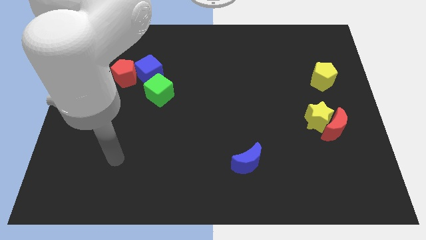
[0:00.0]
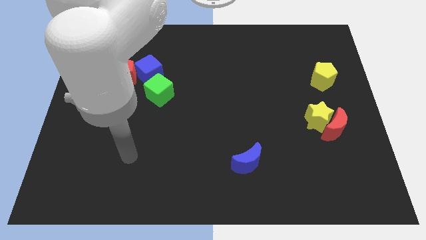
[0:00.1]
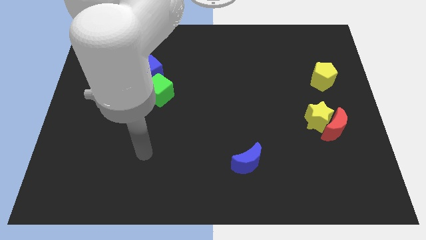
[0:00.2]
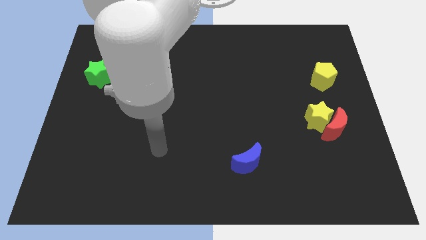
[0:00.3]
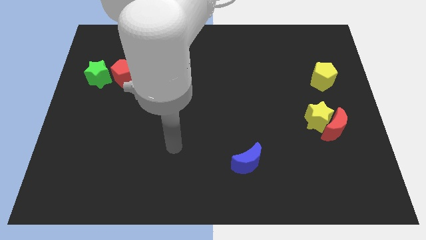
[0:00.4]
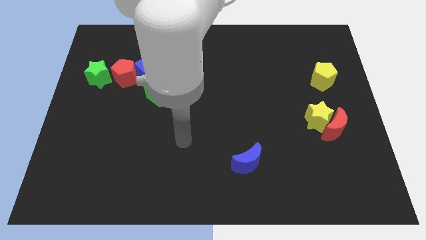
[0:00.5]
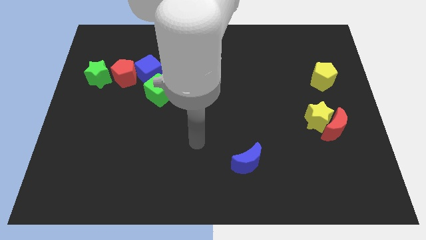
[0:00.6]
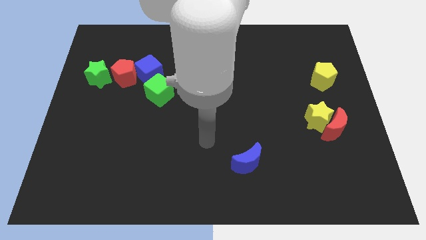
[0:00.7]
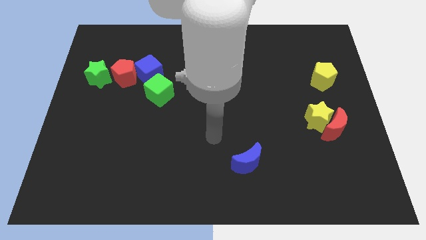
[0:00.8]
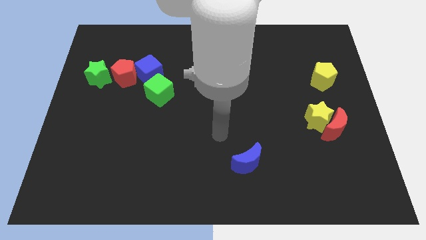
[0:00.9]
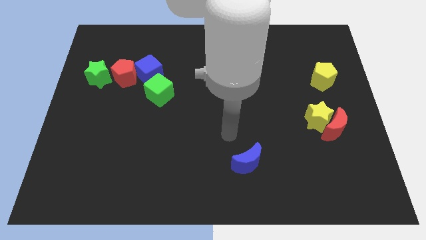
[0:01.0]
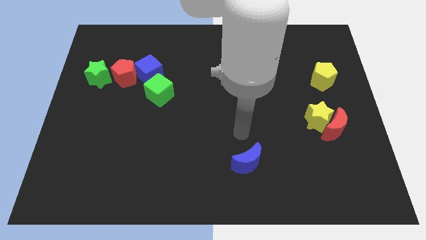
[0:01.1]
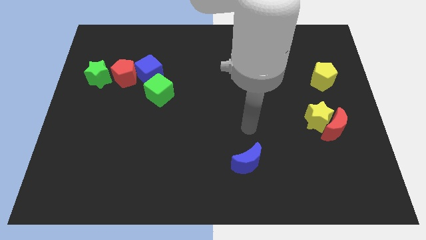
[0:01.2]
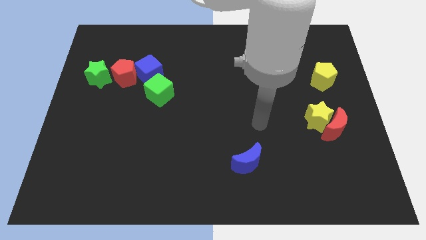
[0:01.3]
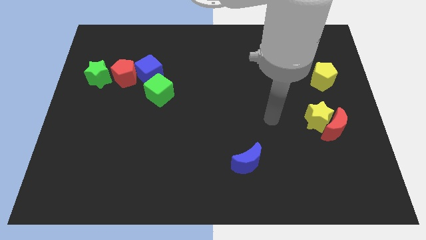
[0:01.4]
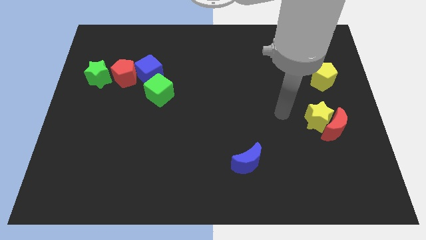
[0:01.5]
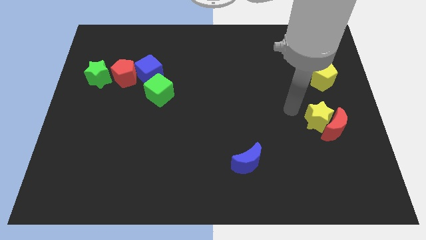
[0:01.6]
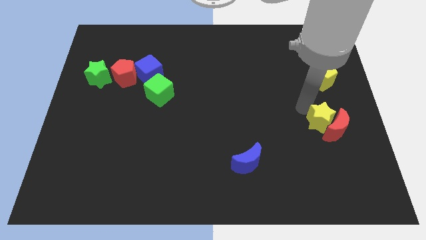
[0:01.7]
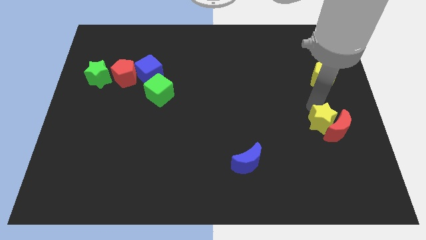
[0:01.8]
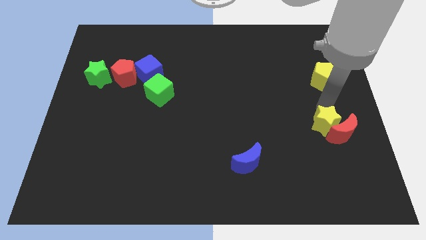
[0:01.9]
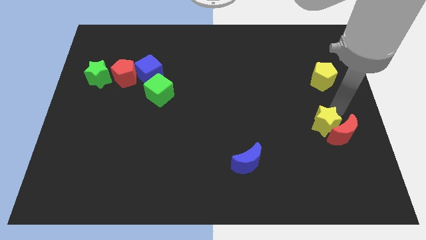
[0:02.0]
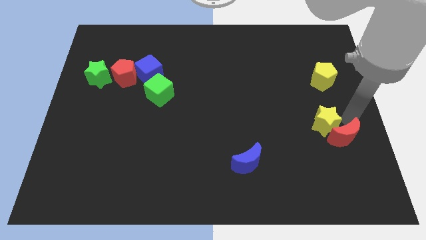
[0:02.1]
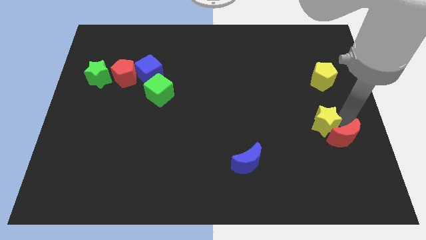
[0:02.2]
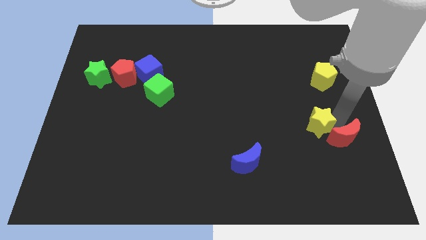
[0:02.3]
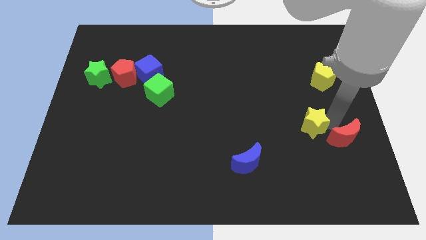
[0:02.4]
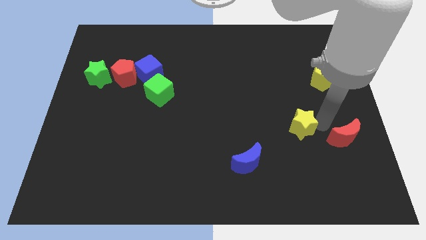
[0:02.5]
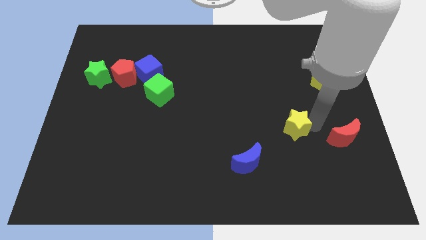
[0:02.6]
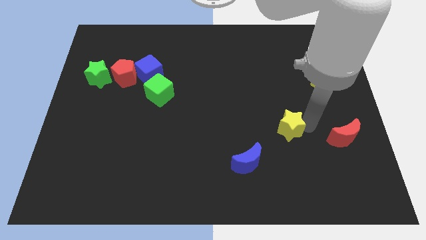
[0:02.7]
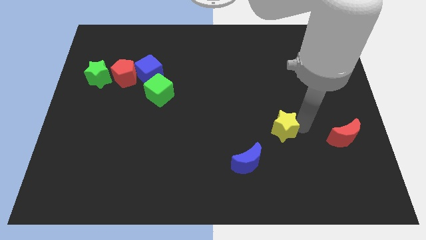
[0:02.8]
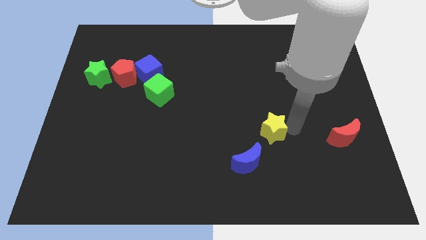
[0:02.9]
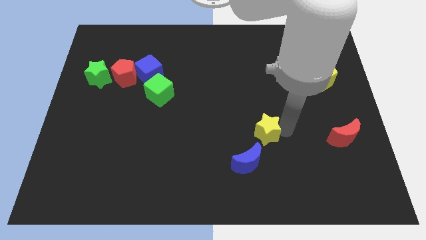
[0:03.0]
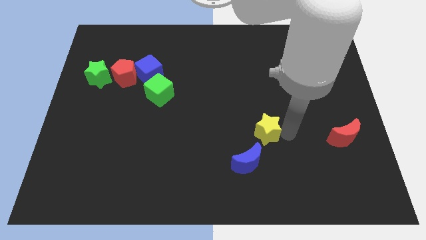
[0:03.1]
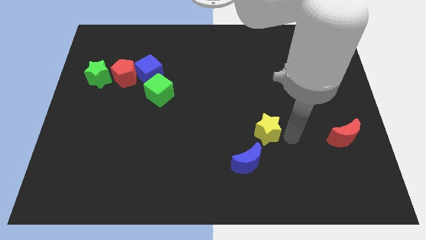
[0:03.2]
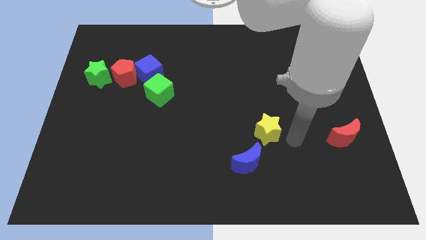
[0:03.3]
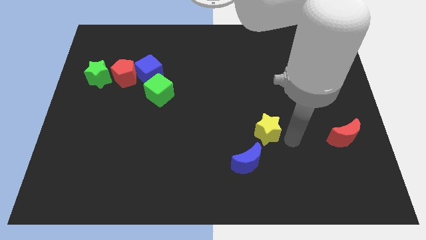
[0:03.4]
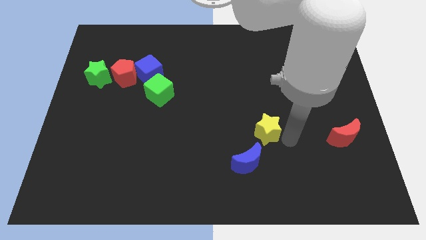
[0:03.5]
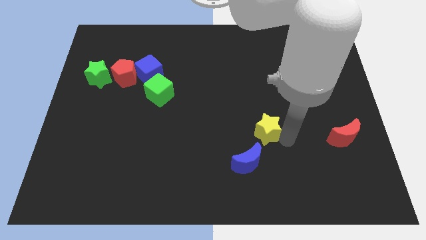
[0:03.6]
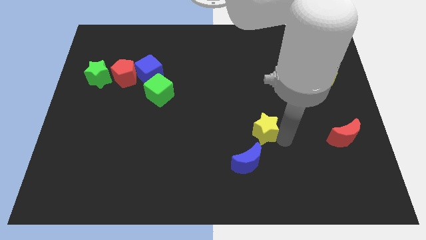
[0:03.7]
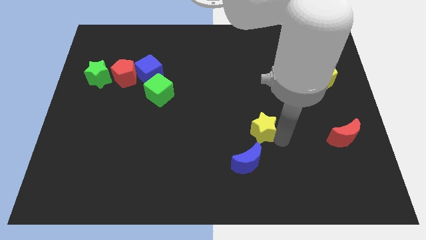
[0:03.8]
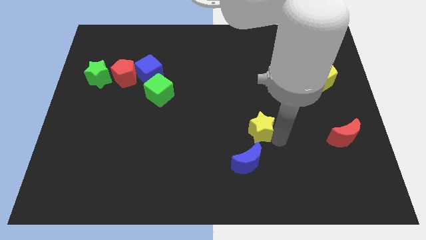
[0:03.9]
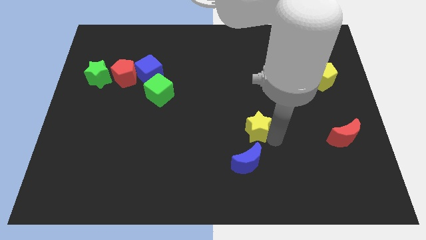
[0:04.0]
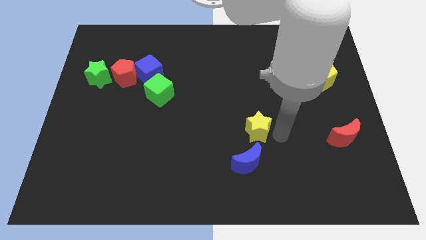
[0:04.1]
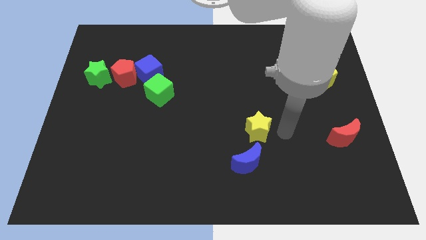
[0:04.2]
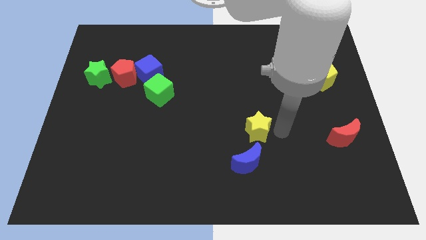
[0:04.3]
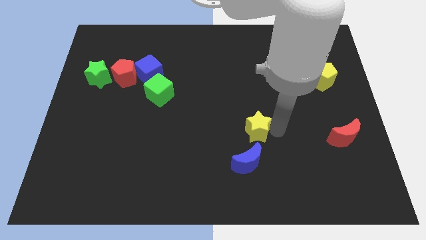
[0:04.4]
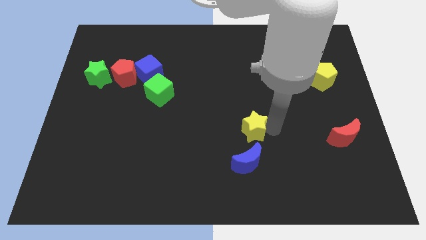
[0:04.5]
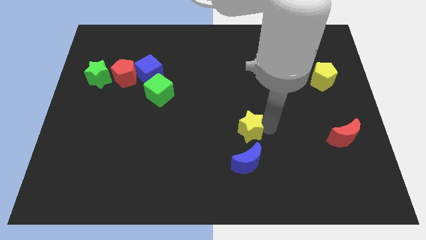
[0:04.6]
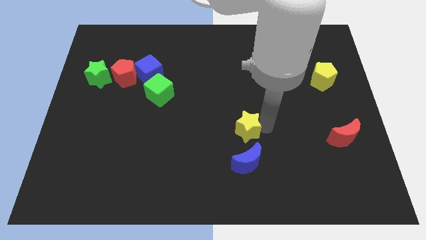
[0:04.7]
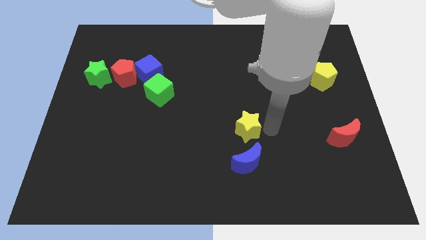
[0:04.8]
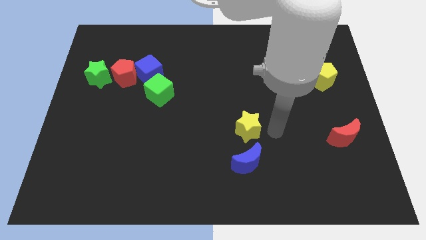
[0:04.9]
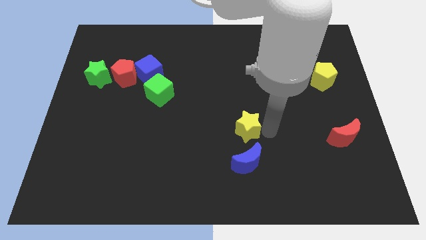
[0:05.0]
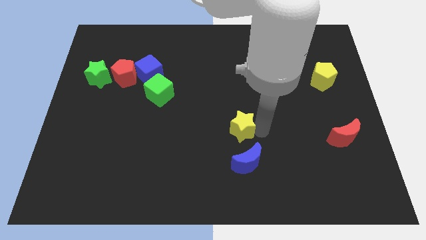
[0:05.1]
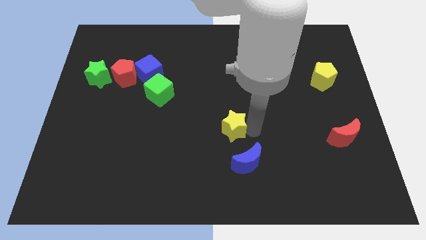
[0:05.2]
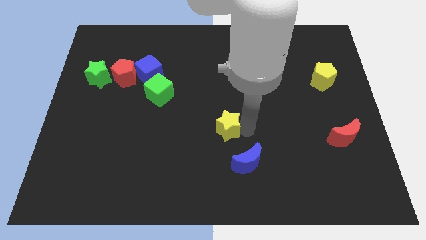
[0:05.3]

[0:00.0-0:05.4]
move the yellow star to the left

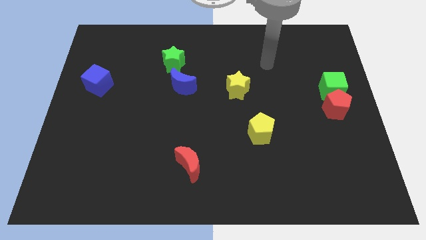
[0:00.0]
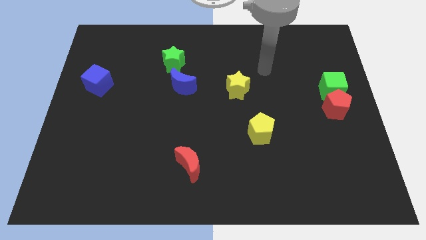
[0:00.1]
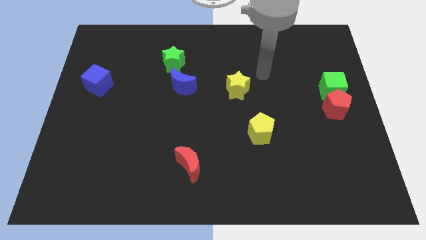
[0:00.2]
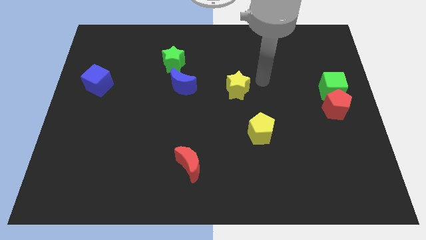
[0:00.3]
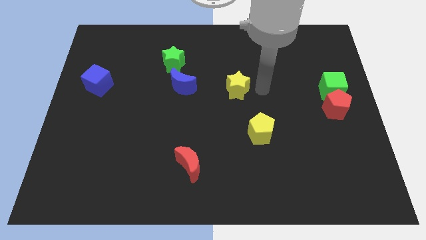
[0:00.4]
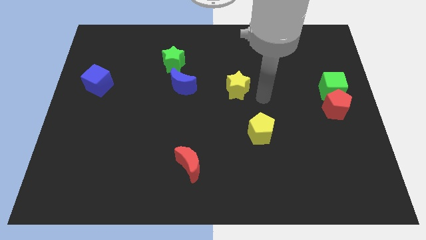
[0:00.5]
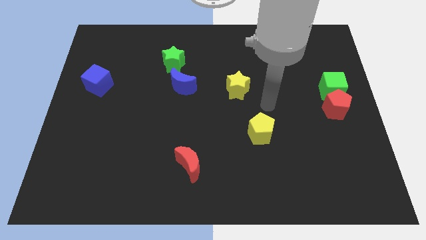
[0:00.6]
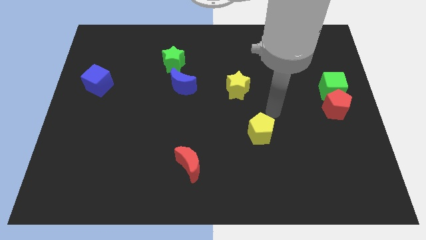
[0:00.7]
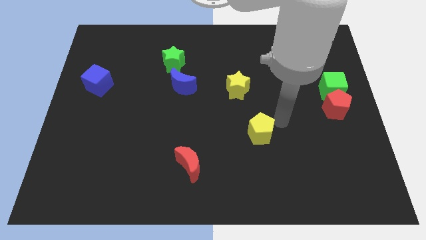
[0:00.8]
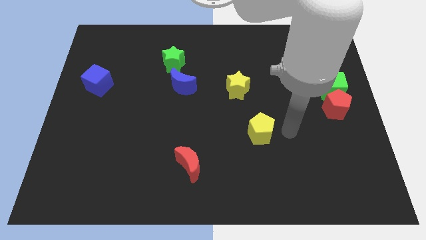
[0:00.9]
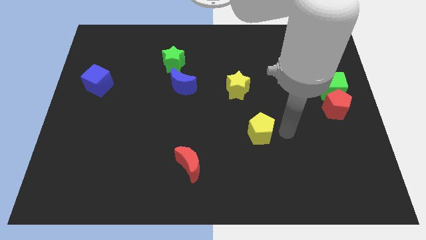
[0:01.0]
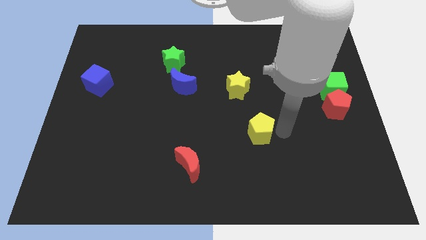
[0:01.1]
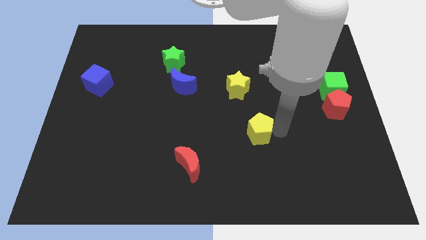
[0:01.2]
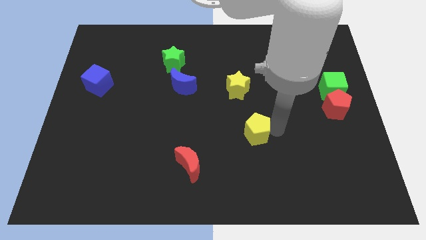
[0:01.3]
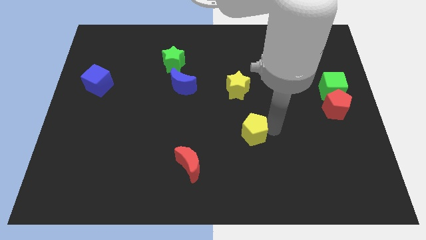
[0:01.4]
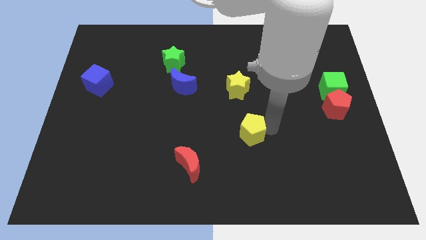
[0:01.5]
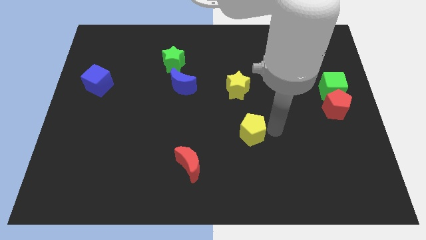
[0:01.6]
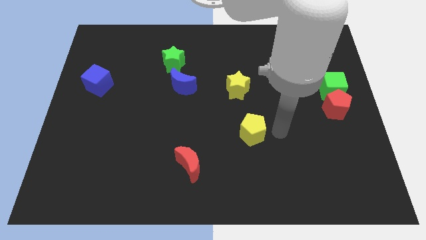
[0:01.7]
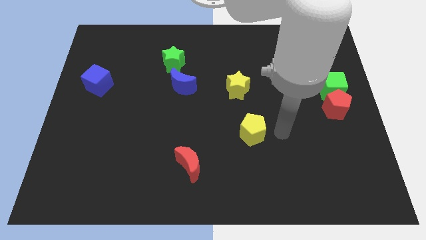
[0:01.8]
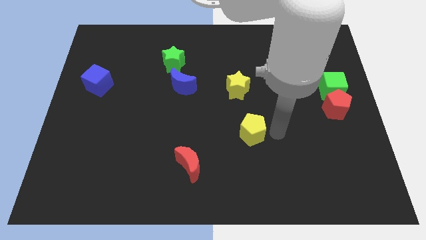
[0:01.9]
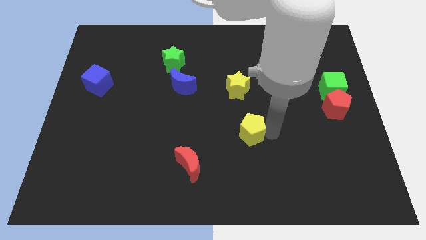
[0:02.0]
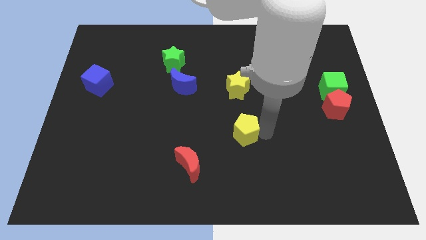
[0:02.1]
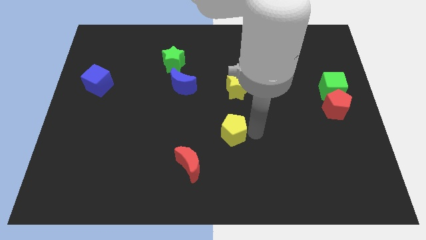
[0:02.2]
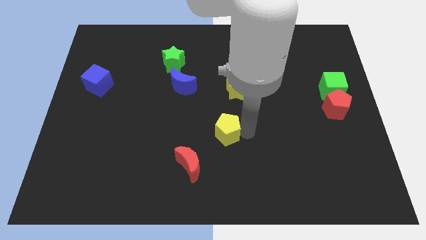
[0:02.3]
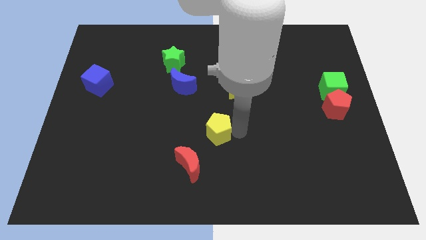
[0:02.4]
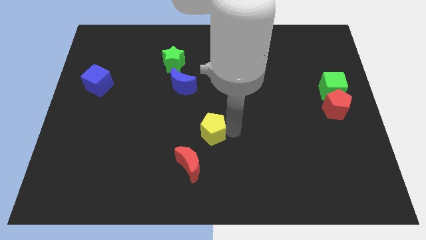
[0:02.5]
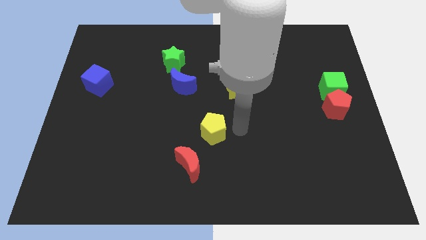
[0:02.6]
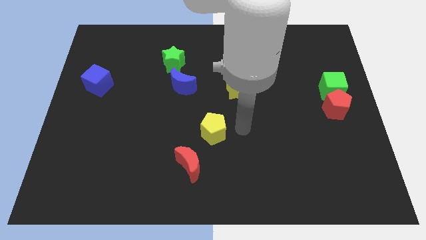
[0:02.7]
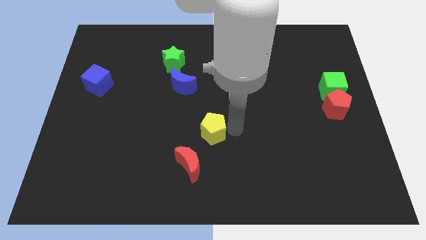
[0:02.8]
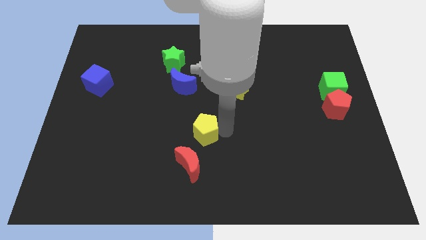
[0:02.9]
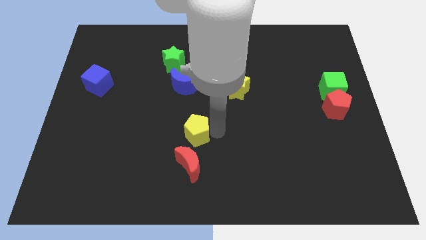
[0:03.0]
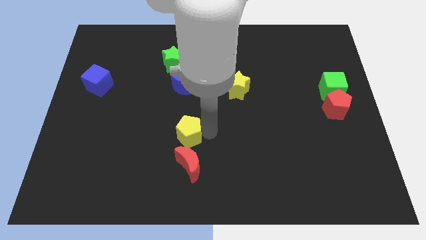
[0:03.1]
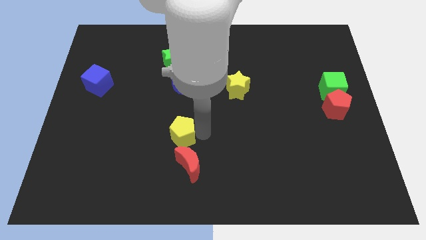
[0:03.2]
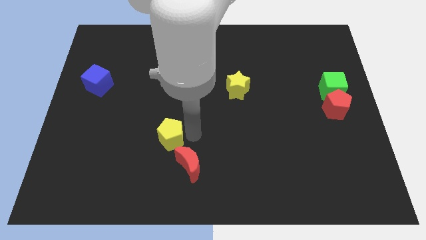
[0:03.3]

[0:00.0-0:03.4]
move the yellow pentagon to the left
